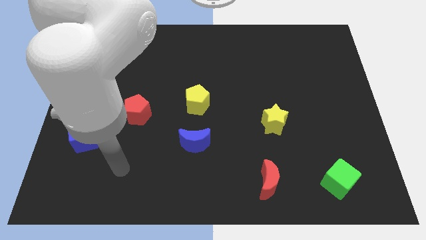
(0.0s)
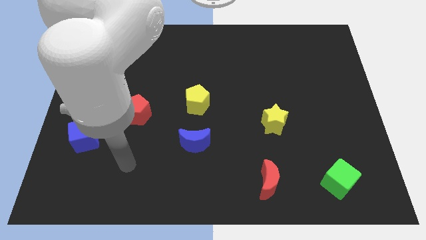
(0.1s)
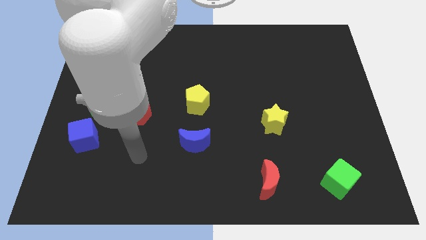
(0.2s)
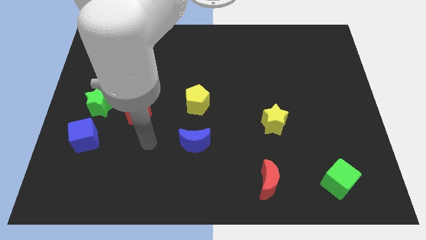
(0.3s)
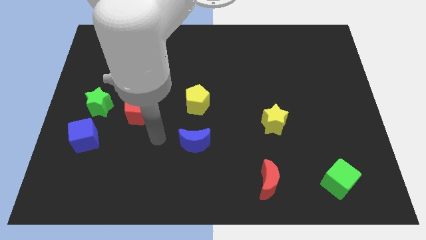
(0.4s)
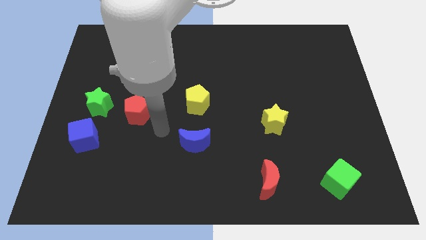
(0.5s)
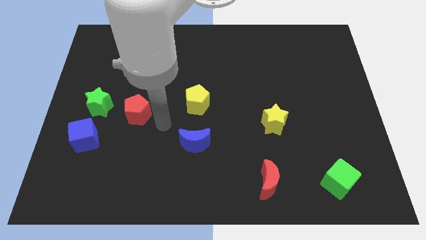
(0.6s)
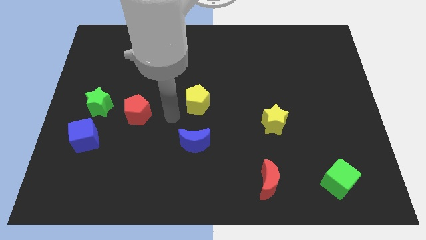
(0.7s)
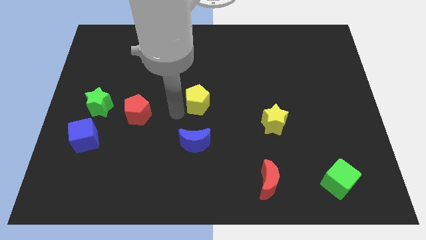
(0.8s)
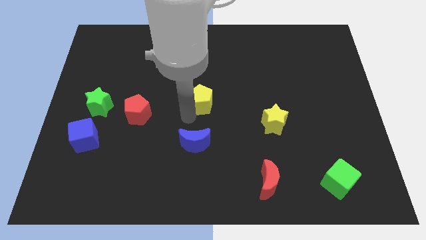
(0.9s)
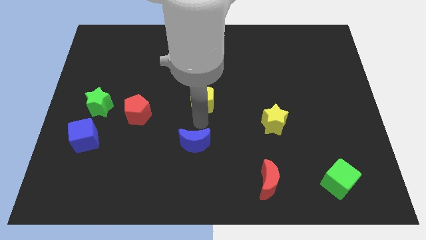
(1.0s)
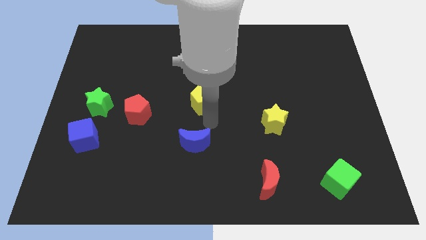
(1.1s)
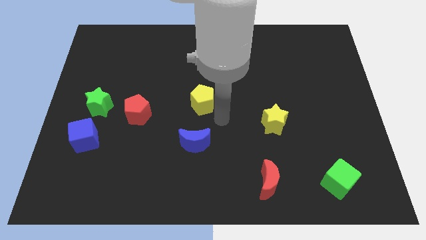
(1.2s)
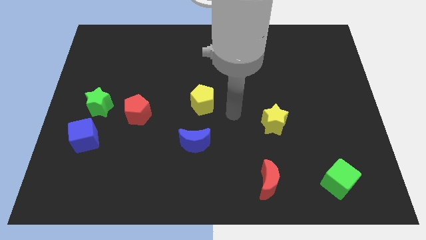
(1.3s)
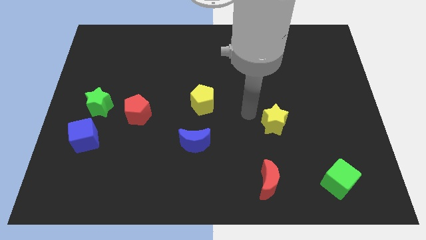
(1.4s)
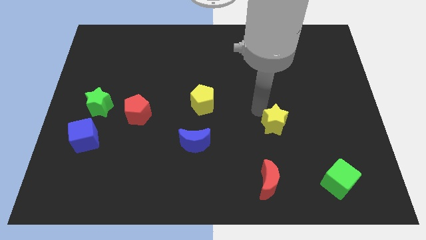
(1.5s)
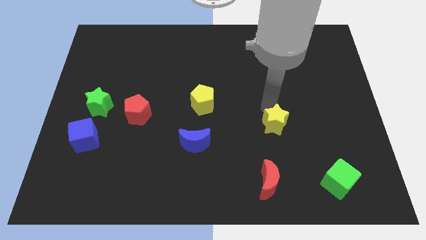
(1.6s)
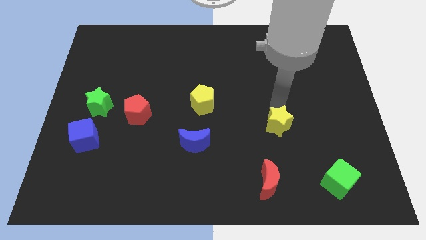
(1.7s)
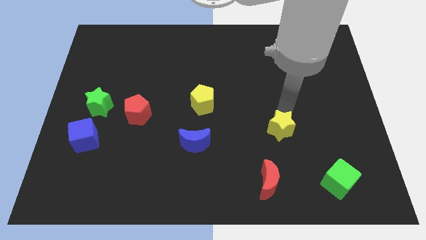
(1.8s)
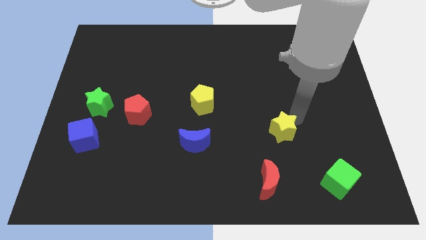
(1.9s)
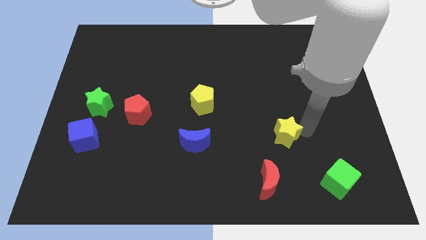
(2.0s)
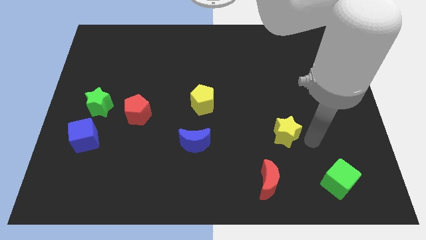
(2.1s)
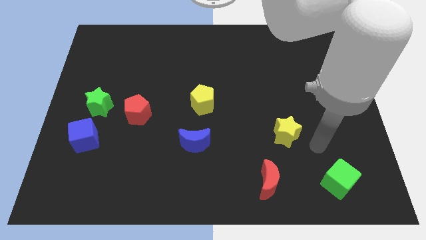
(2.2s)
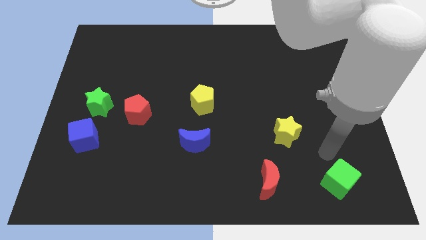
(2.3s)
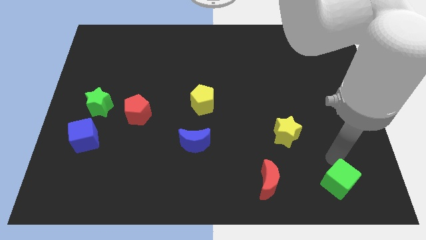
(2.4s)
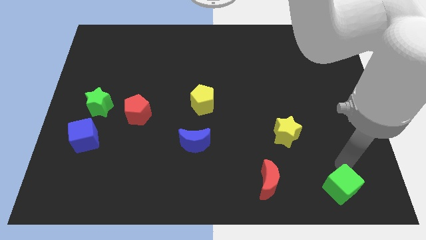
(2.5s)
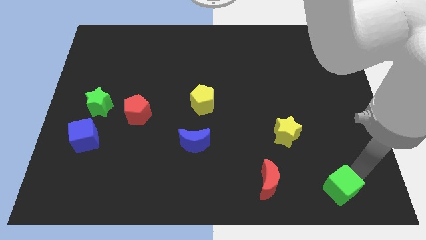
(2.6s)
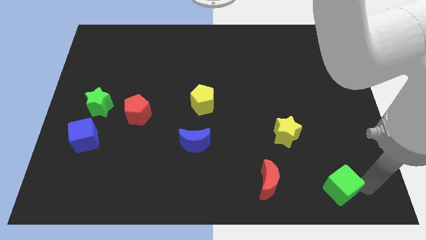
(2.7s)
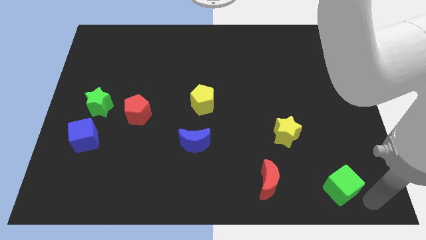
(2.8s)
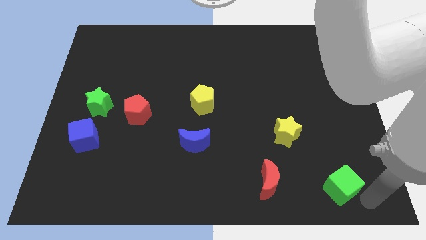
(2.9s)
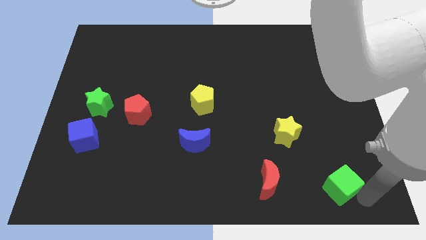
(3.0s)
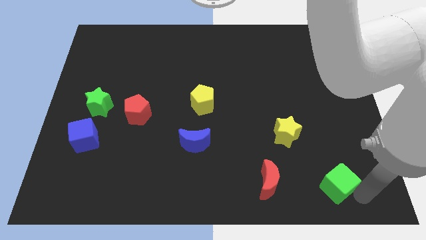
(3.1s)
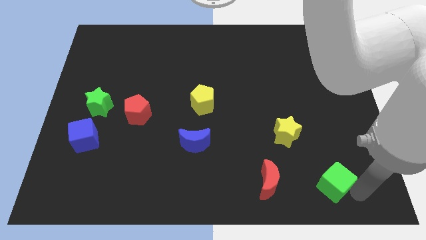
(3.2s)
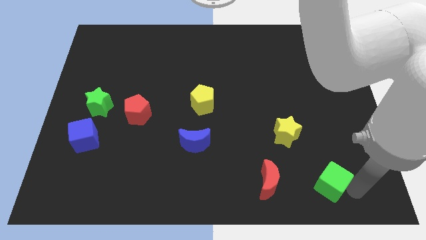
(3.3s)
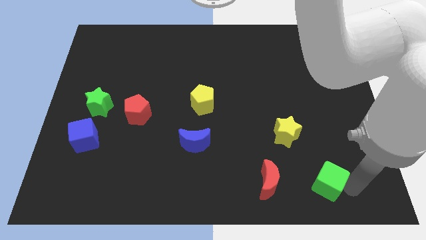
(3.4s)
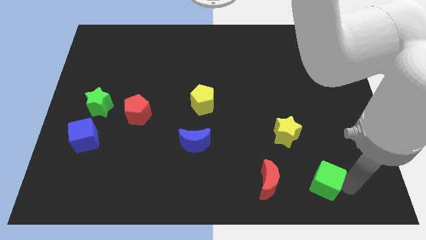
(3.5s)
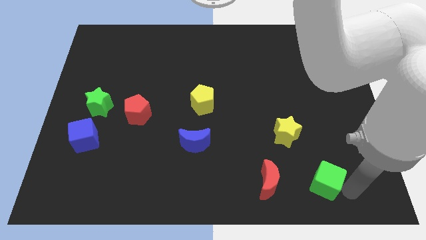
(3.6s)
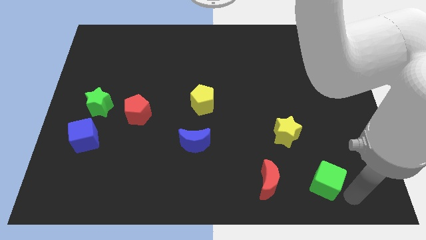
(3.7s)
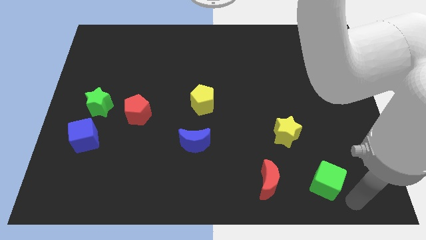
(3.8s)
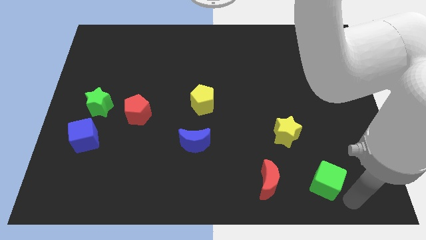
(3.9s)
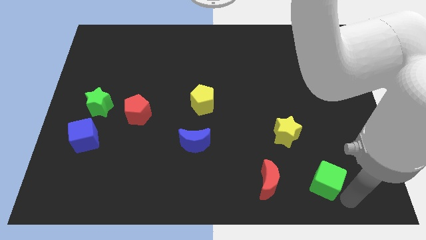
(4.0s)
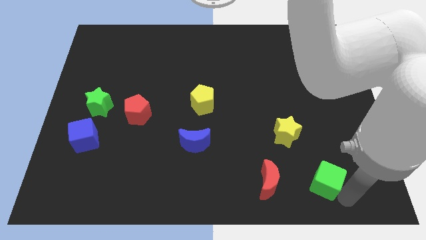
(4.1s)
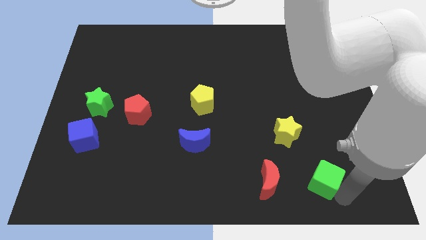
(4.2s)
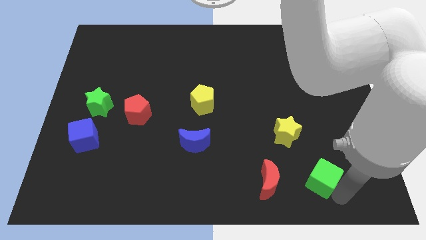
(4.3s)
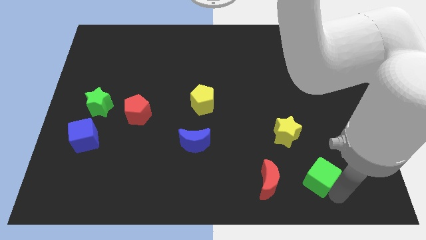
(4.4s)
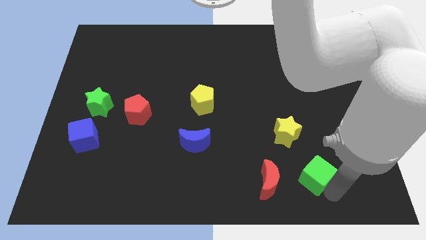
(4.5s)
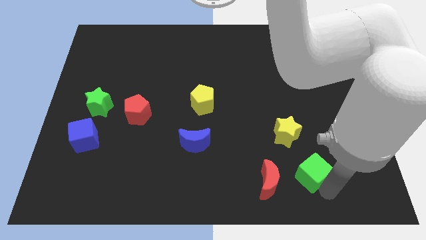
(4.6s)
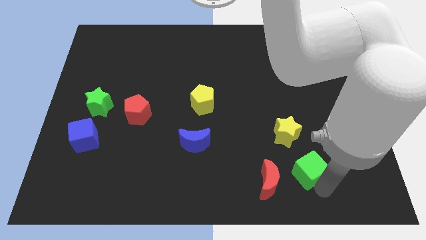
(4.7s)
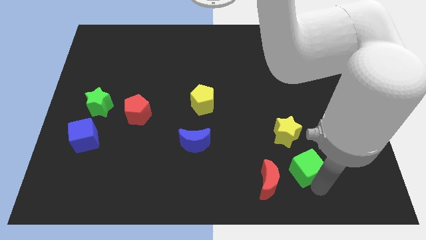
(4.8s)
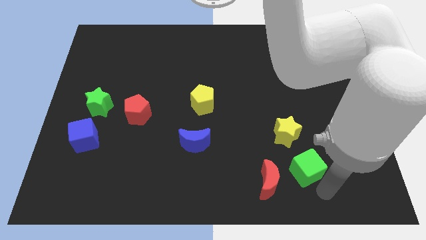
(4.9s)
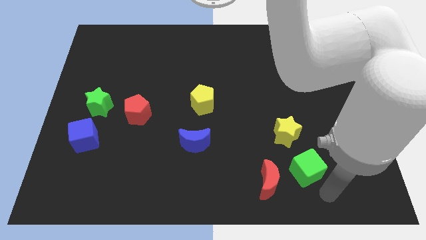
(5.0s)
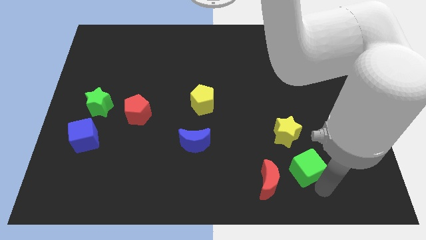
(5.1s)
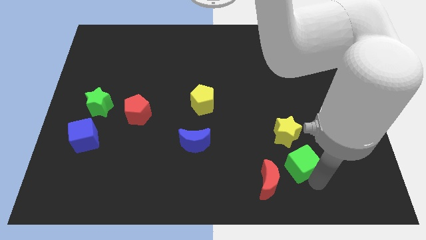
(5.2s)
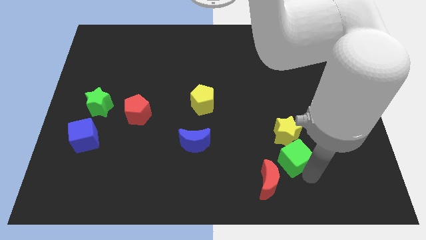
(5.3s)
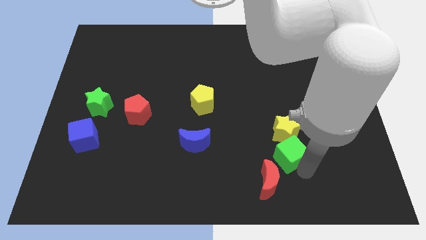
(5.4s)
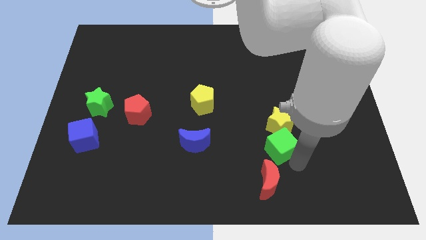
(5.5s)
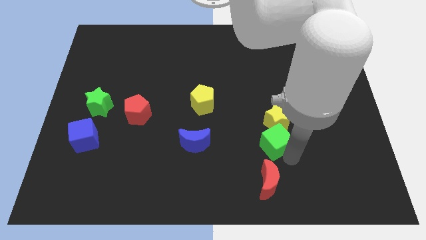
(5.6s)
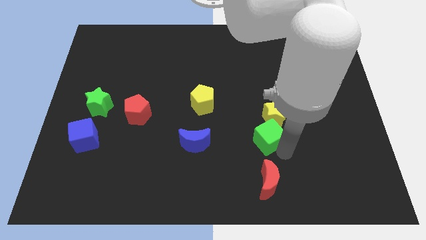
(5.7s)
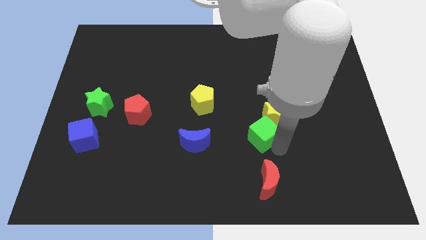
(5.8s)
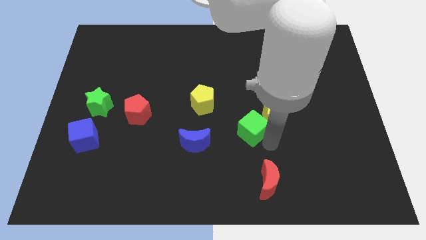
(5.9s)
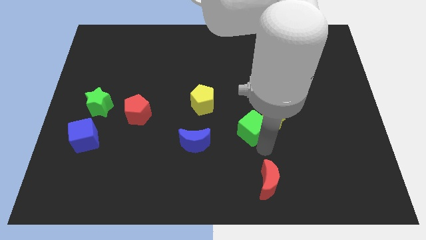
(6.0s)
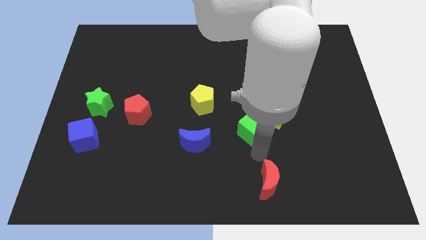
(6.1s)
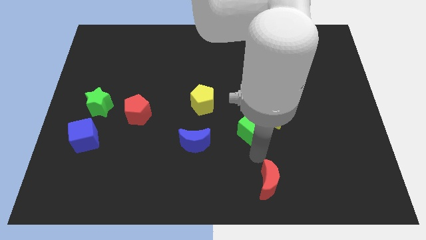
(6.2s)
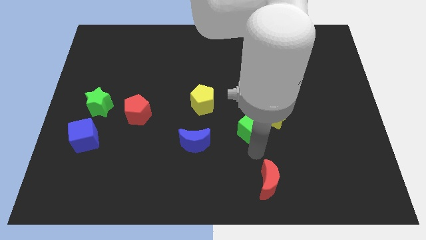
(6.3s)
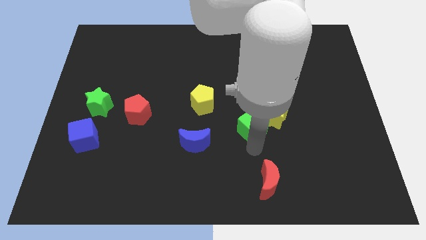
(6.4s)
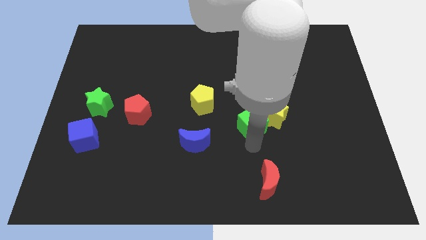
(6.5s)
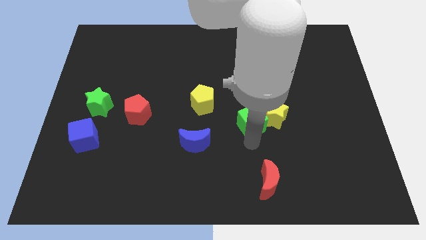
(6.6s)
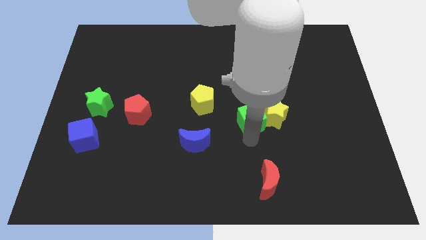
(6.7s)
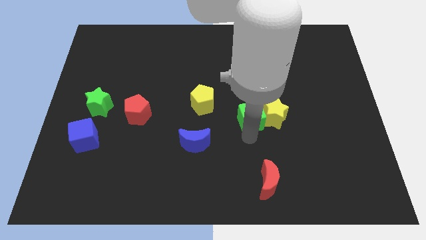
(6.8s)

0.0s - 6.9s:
slide the green cube just right of the yellow pentagon
